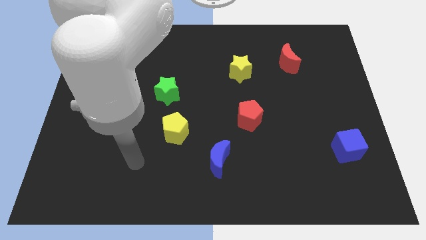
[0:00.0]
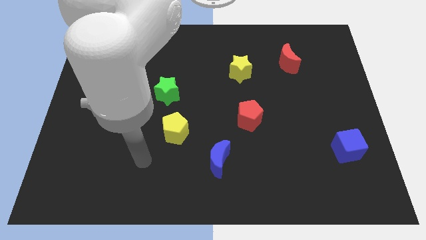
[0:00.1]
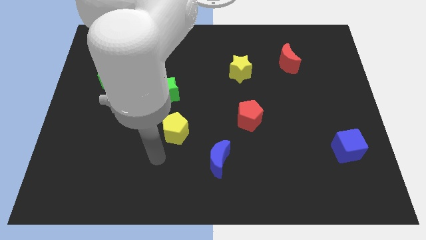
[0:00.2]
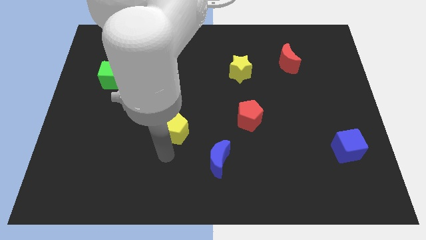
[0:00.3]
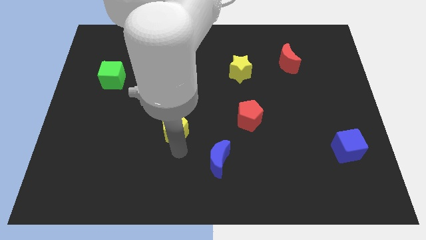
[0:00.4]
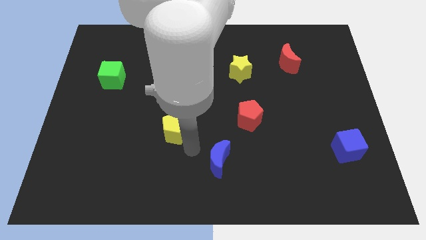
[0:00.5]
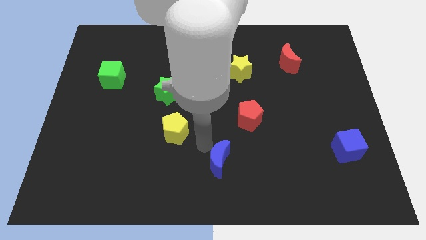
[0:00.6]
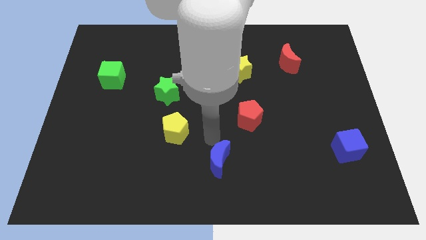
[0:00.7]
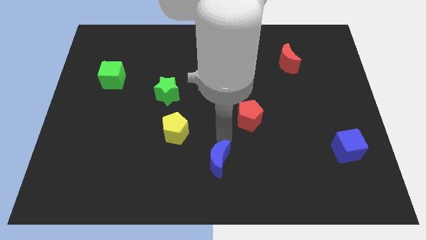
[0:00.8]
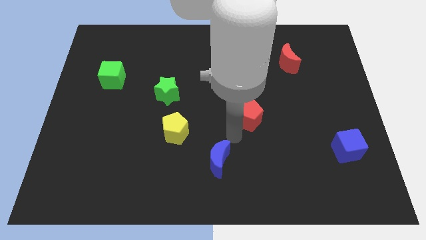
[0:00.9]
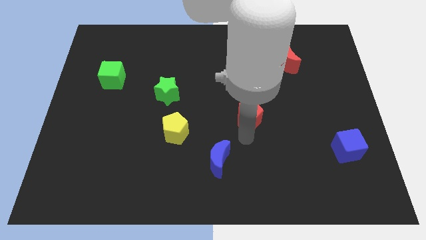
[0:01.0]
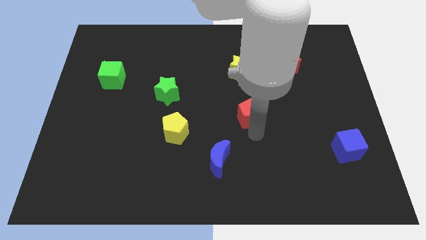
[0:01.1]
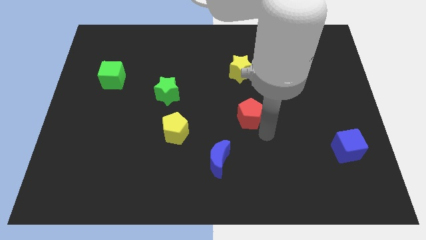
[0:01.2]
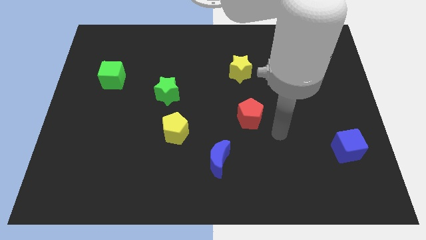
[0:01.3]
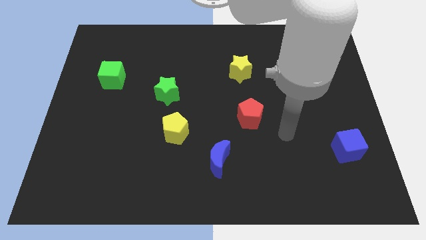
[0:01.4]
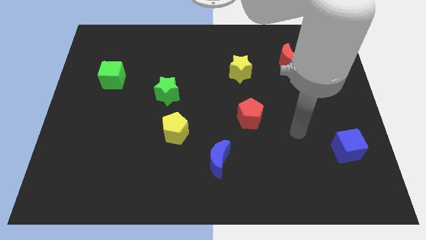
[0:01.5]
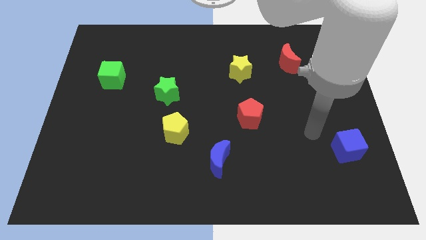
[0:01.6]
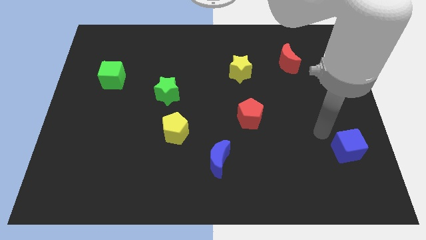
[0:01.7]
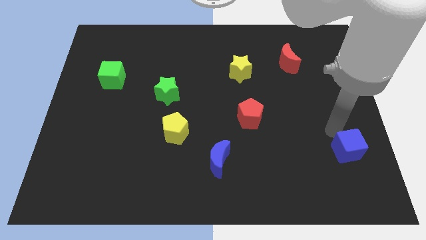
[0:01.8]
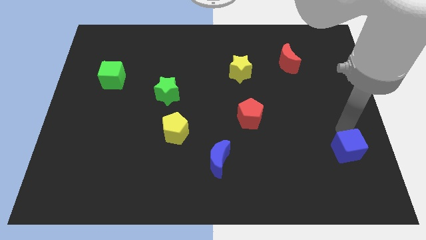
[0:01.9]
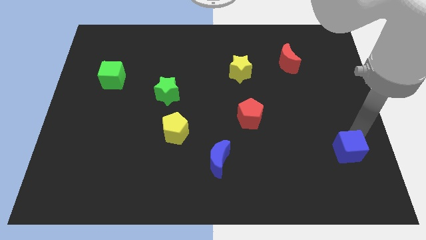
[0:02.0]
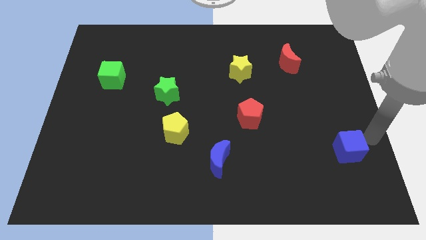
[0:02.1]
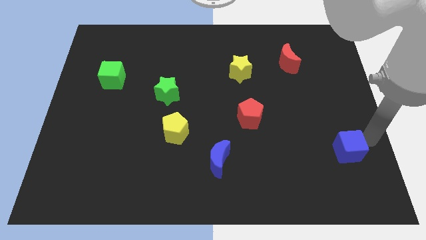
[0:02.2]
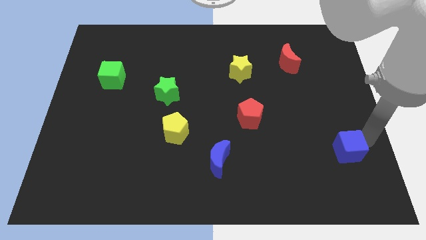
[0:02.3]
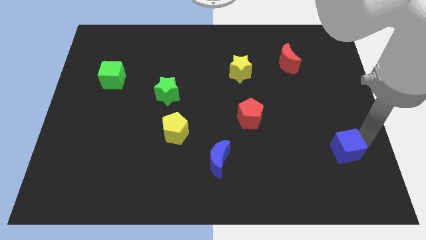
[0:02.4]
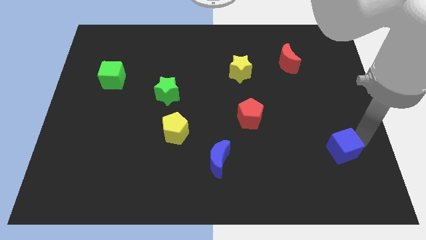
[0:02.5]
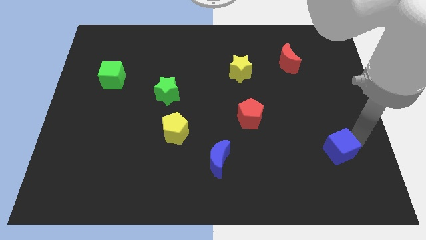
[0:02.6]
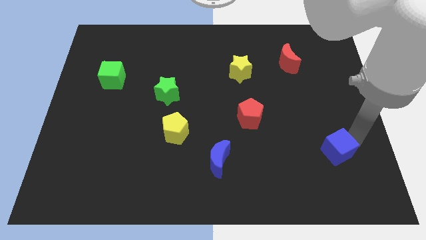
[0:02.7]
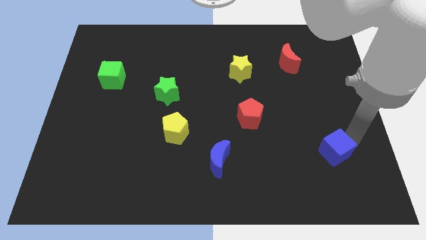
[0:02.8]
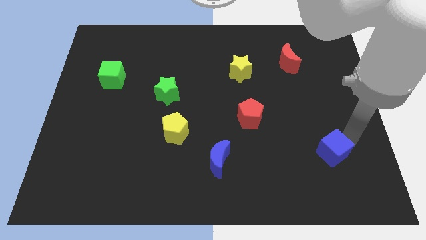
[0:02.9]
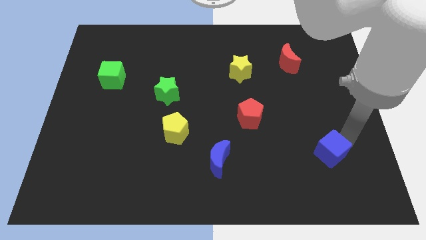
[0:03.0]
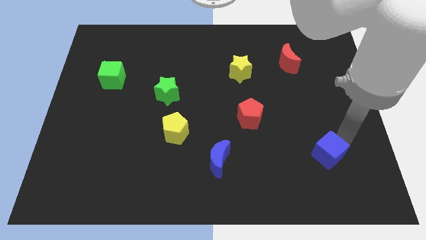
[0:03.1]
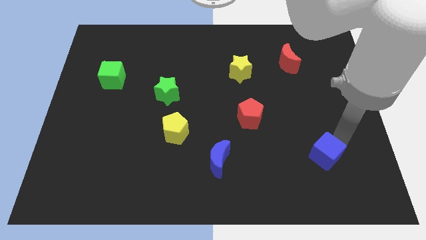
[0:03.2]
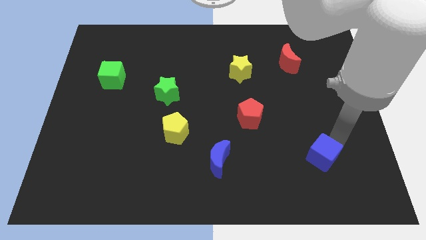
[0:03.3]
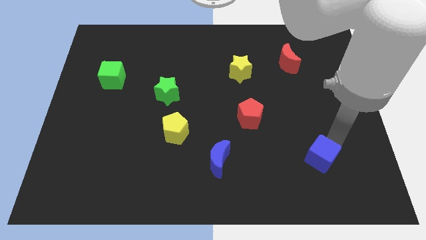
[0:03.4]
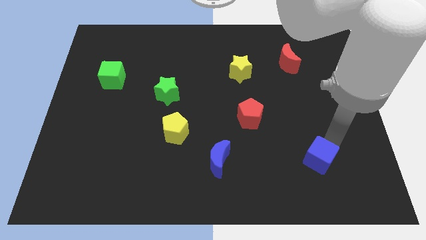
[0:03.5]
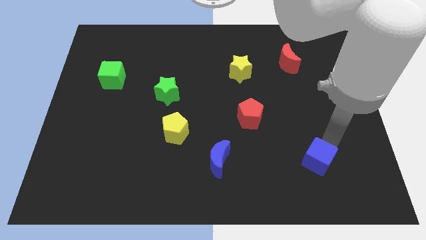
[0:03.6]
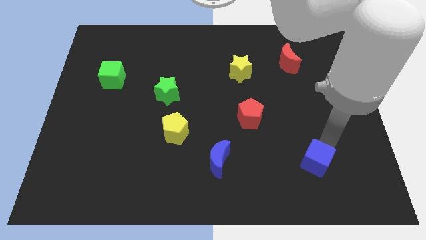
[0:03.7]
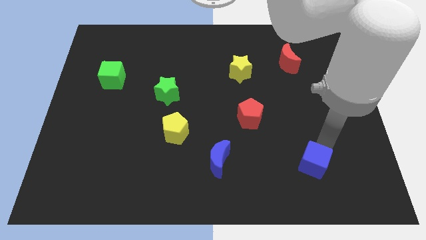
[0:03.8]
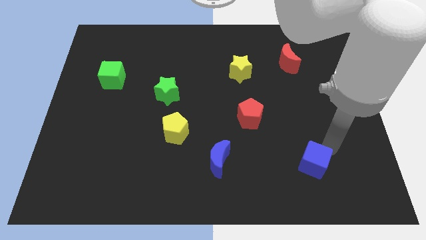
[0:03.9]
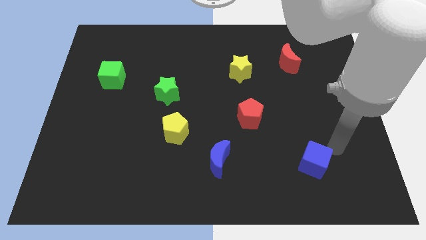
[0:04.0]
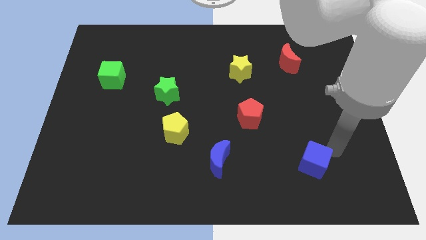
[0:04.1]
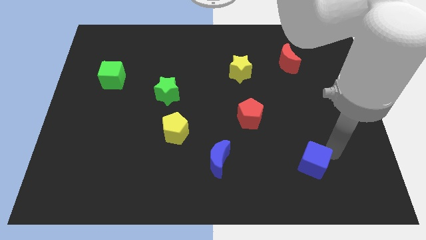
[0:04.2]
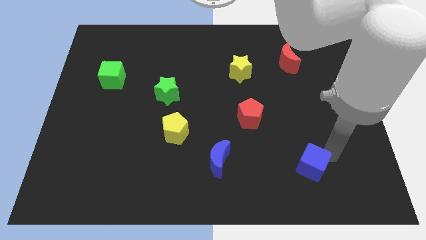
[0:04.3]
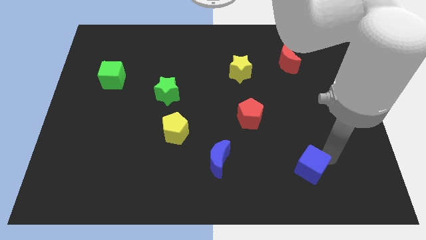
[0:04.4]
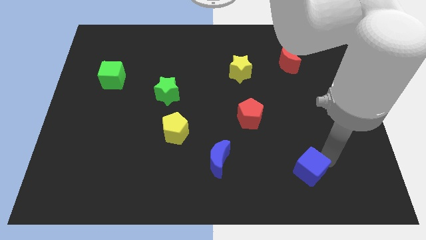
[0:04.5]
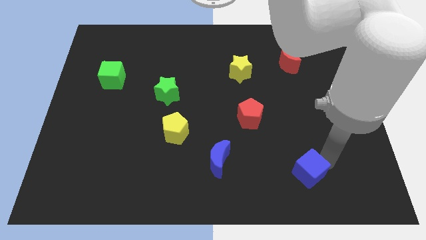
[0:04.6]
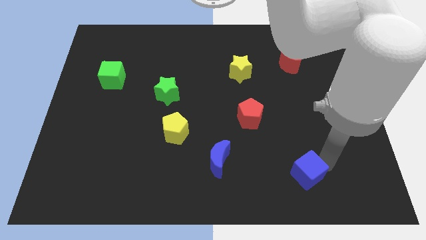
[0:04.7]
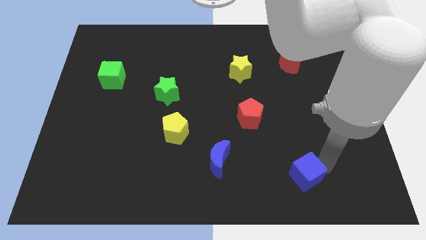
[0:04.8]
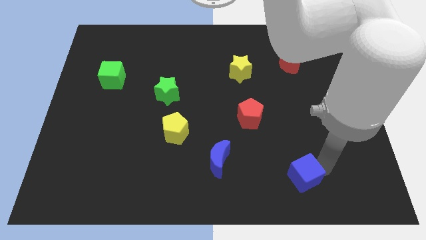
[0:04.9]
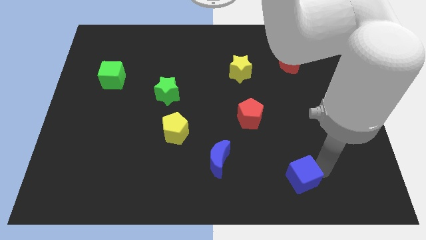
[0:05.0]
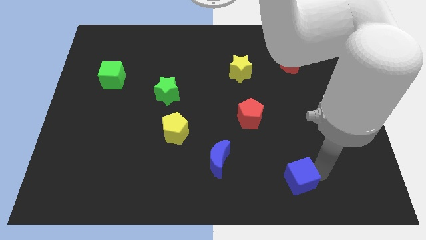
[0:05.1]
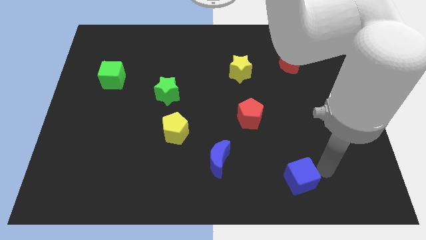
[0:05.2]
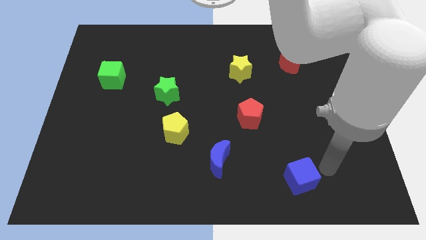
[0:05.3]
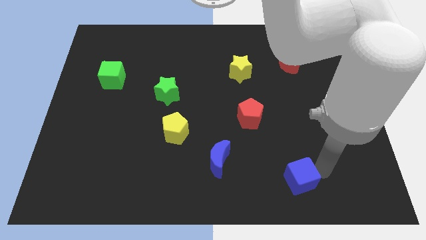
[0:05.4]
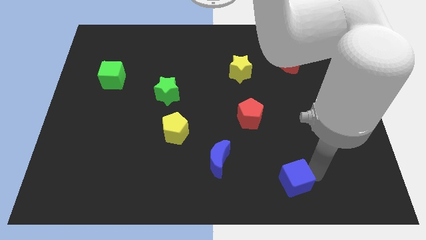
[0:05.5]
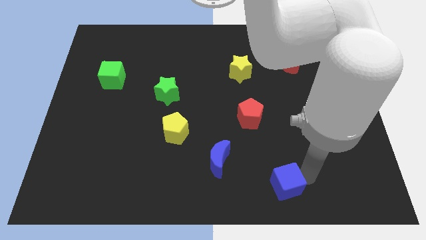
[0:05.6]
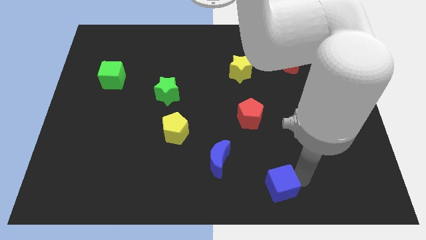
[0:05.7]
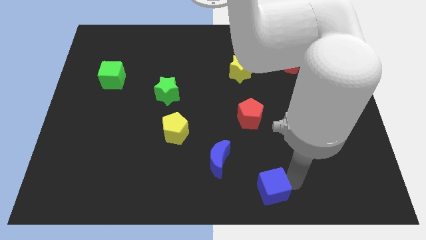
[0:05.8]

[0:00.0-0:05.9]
put the blue cube to the bottom
